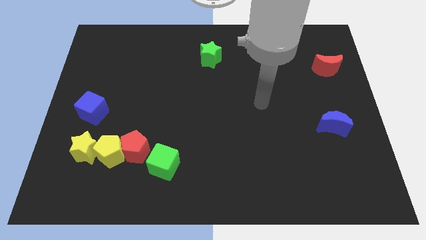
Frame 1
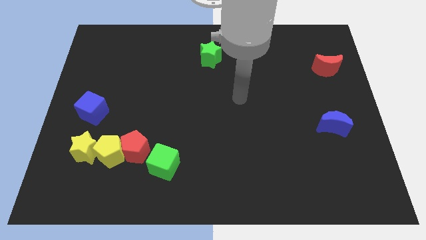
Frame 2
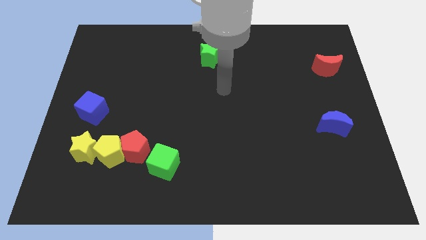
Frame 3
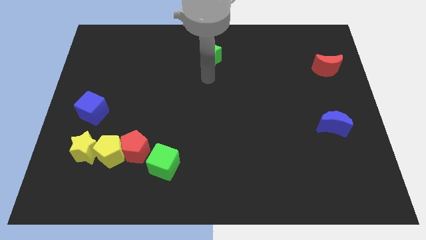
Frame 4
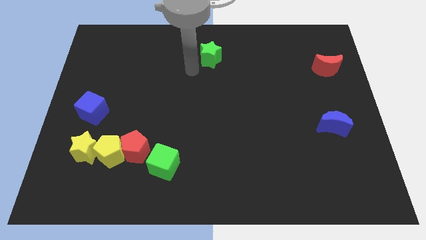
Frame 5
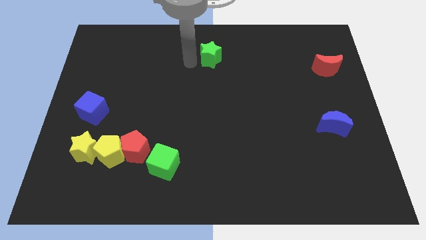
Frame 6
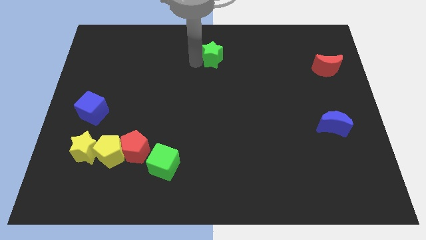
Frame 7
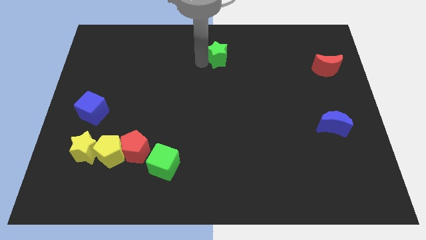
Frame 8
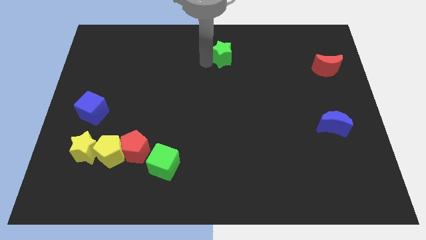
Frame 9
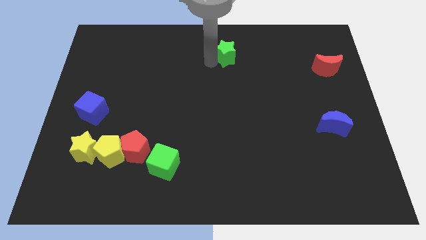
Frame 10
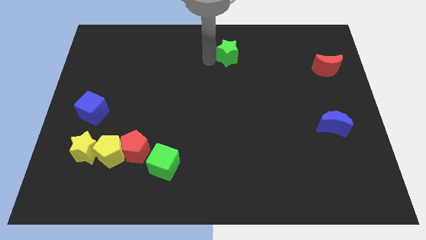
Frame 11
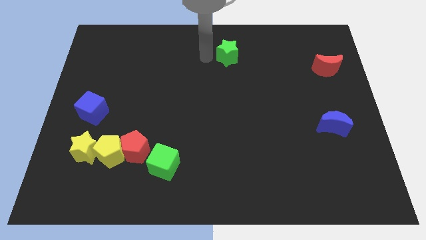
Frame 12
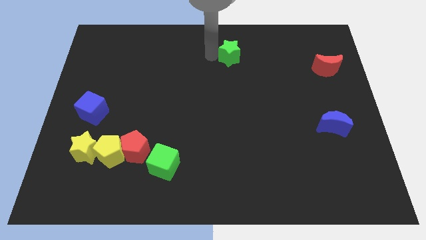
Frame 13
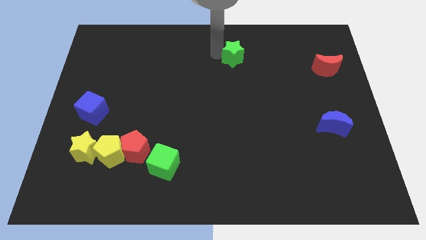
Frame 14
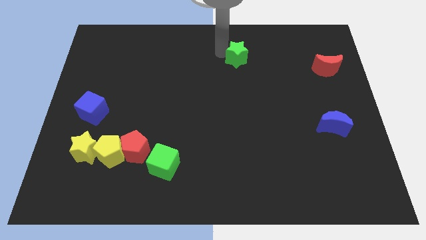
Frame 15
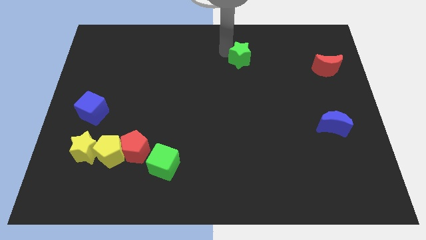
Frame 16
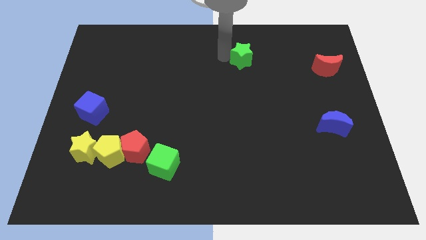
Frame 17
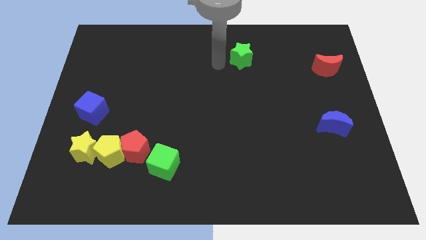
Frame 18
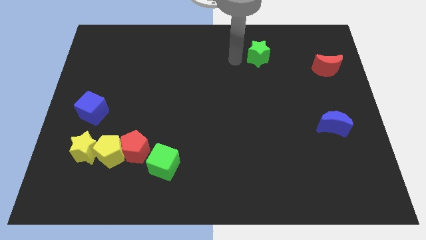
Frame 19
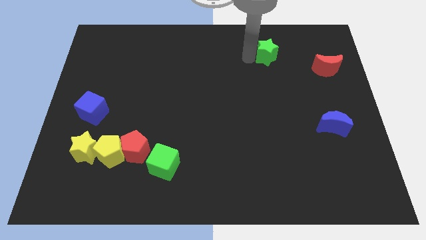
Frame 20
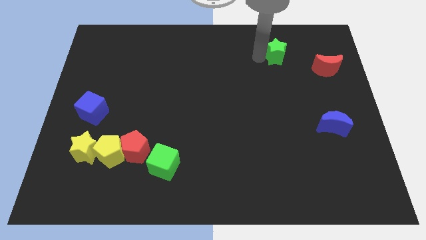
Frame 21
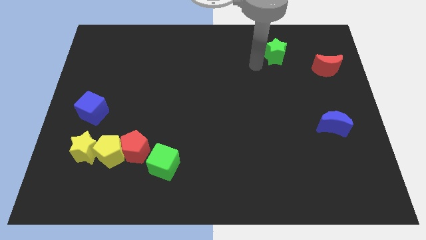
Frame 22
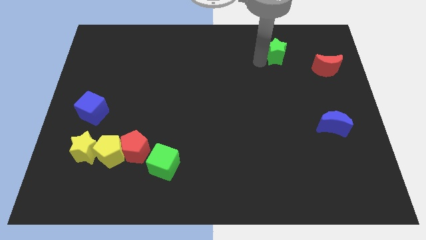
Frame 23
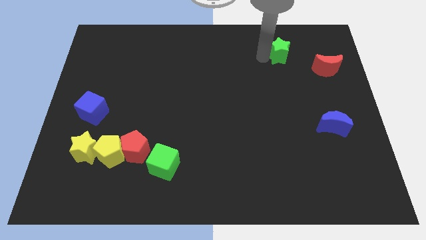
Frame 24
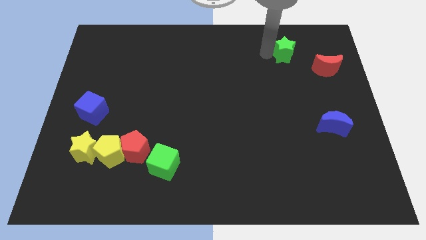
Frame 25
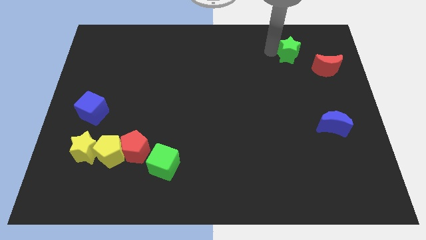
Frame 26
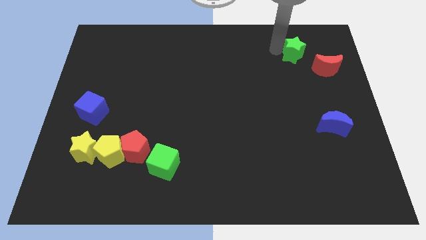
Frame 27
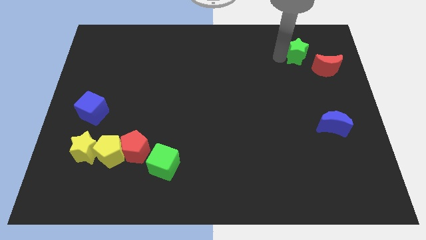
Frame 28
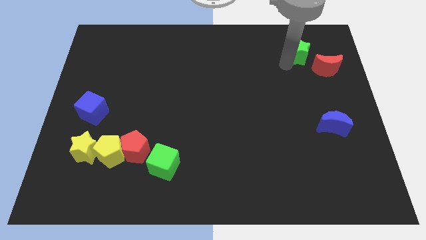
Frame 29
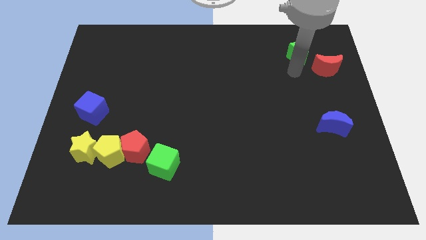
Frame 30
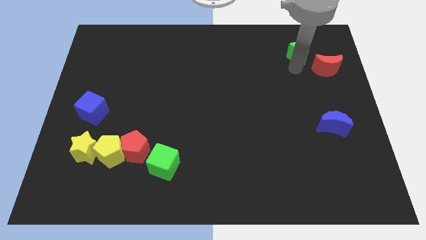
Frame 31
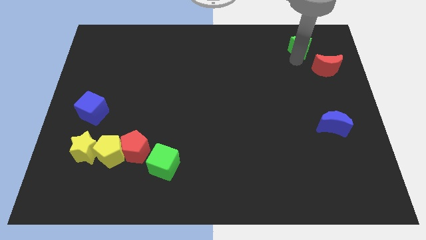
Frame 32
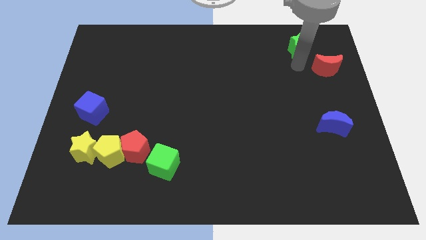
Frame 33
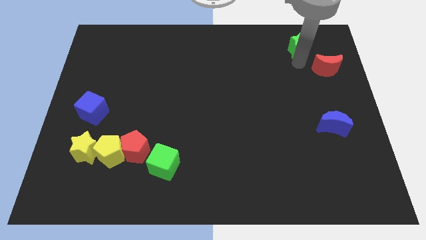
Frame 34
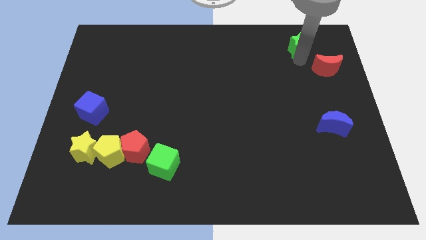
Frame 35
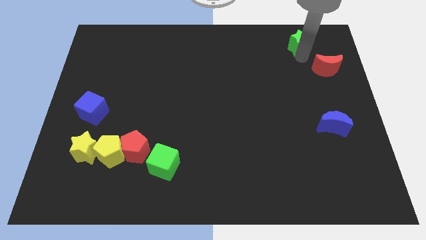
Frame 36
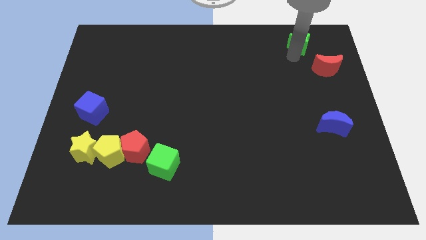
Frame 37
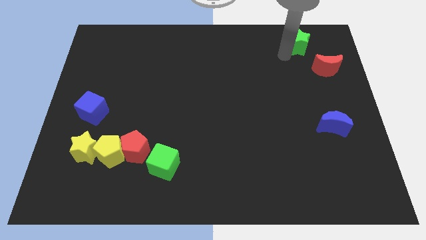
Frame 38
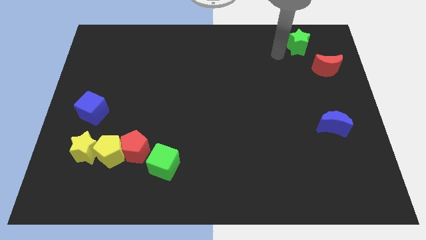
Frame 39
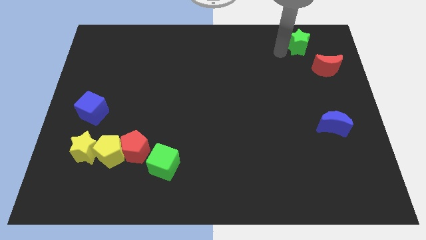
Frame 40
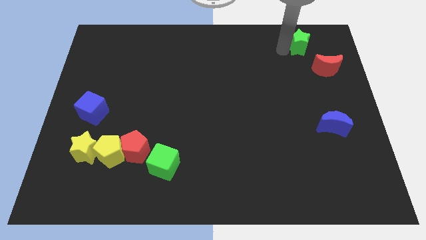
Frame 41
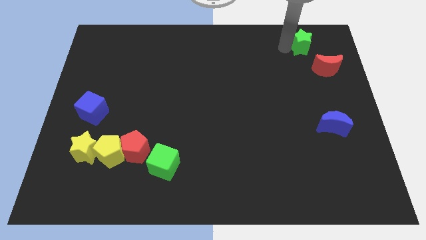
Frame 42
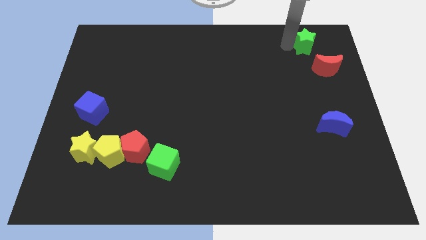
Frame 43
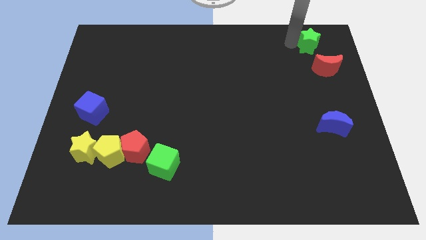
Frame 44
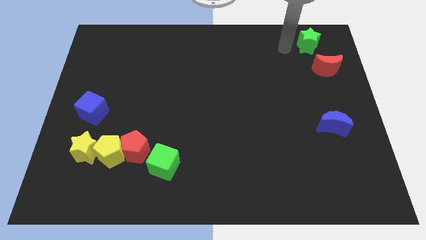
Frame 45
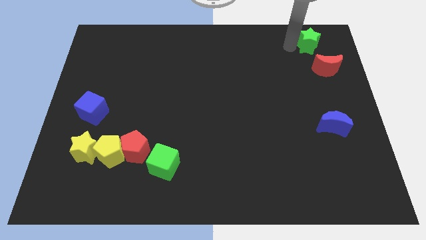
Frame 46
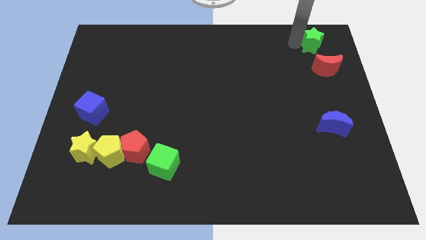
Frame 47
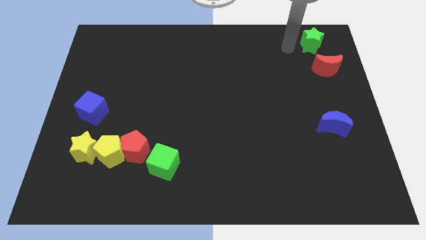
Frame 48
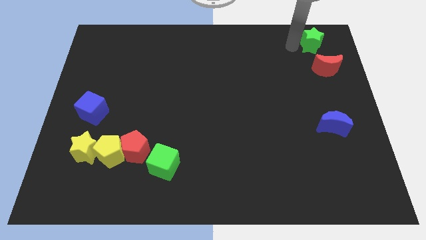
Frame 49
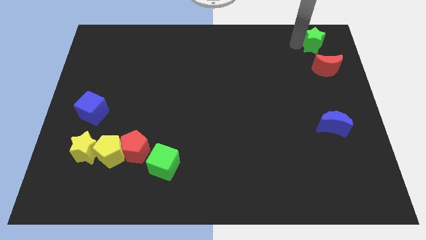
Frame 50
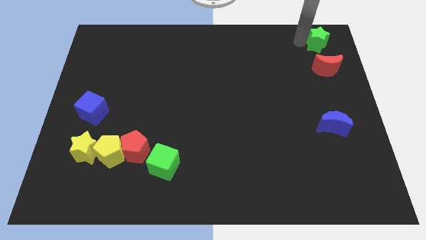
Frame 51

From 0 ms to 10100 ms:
move the green star to the top right corner

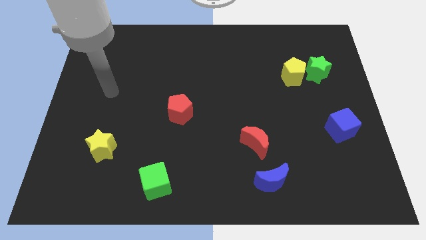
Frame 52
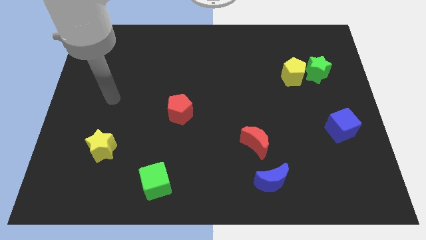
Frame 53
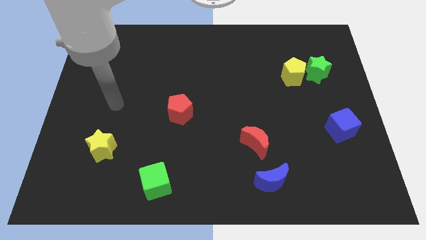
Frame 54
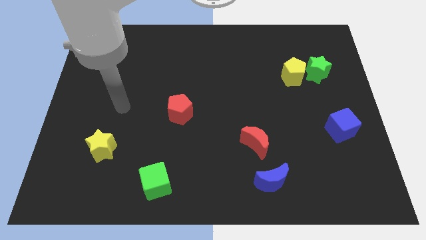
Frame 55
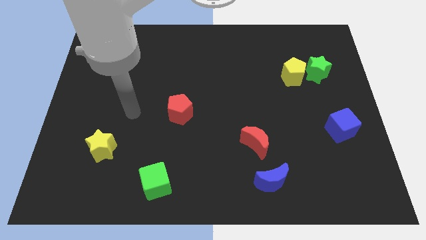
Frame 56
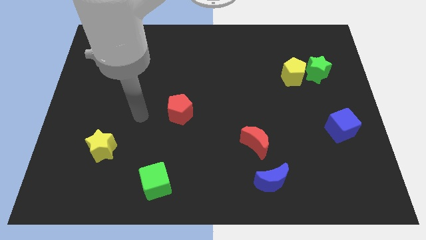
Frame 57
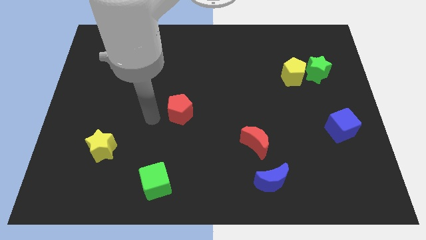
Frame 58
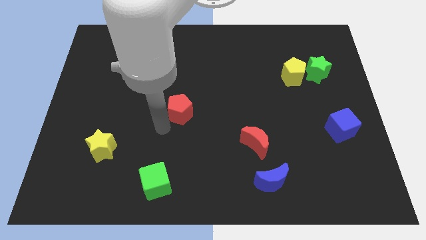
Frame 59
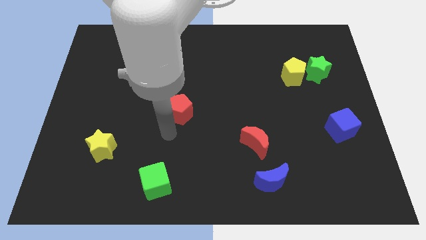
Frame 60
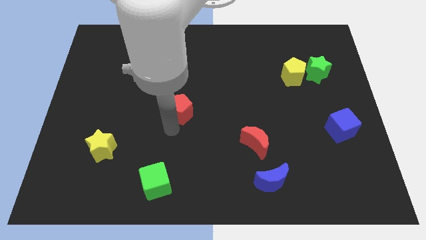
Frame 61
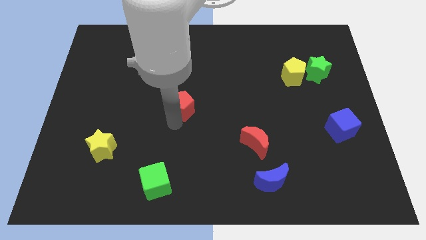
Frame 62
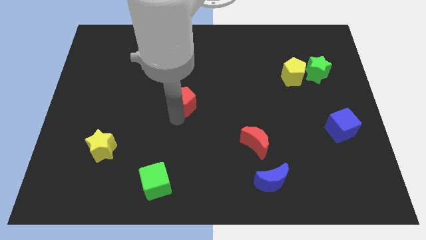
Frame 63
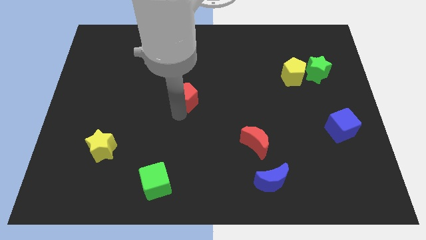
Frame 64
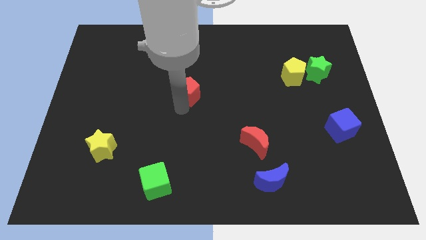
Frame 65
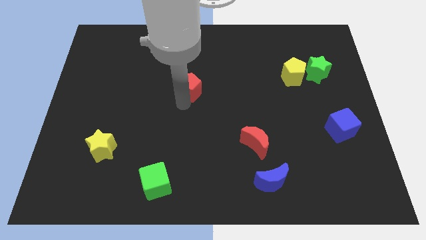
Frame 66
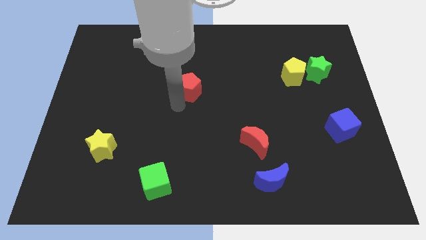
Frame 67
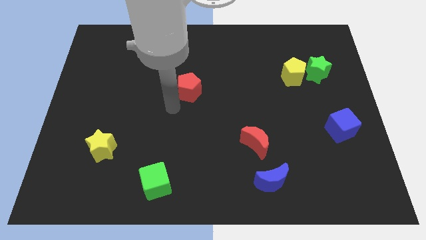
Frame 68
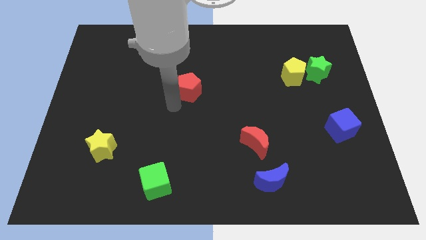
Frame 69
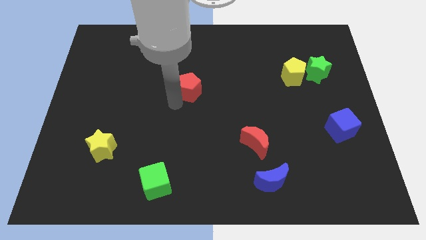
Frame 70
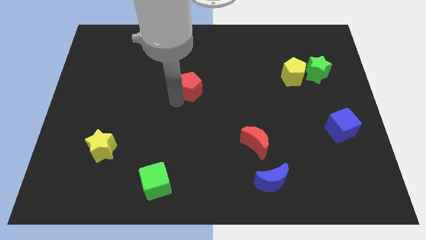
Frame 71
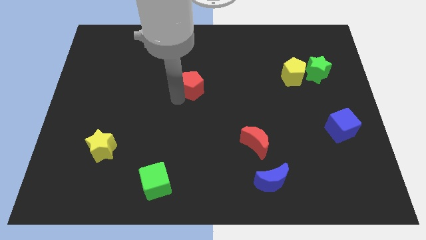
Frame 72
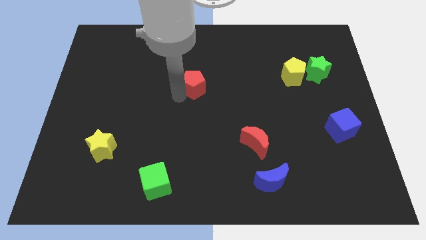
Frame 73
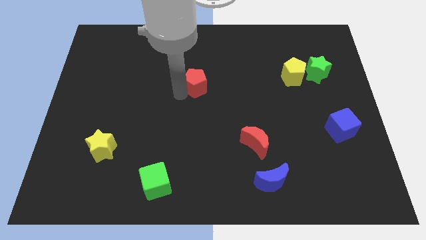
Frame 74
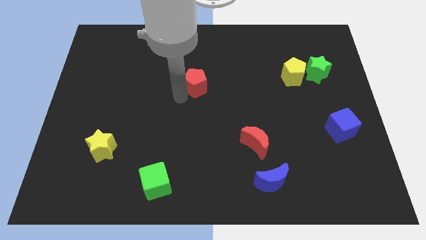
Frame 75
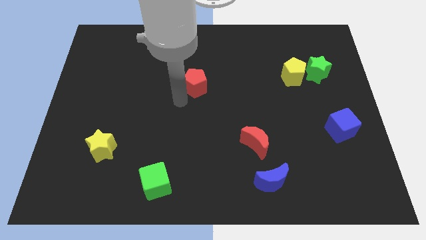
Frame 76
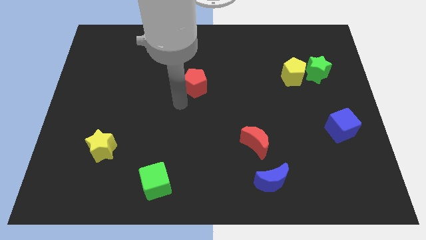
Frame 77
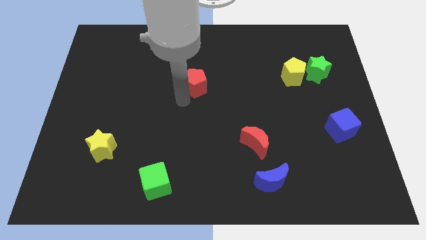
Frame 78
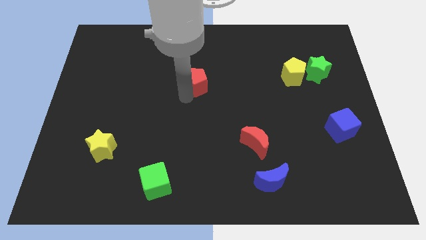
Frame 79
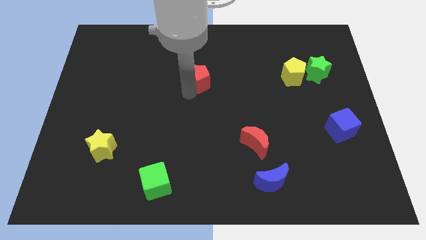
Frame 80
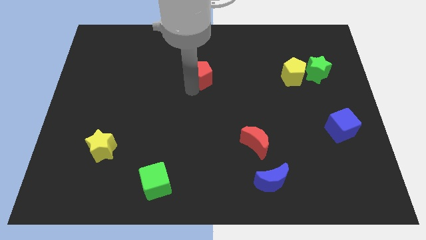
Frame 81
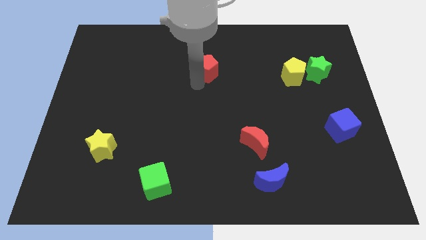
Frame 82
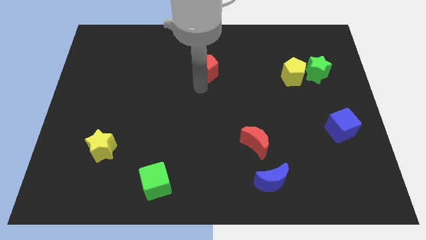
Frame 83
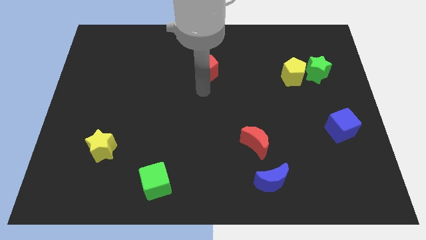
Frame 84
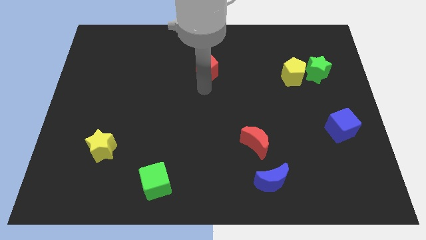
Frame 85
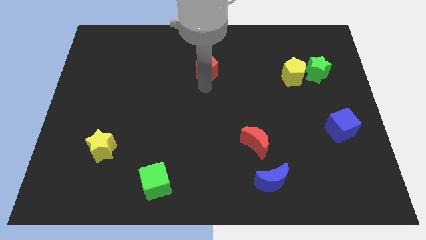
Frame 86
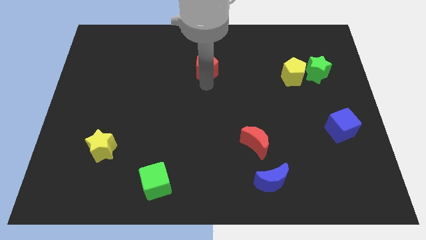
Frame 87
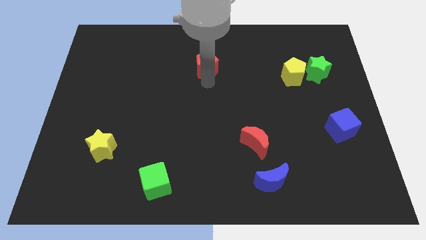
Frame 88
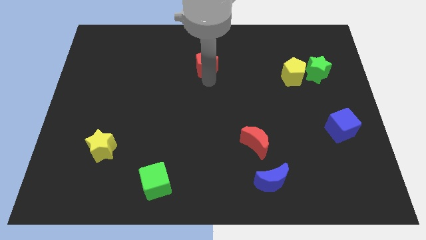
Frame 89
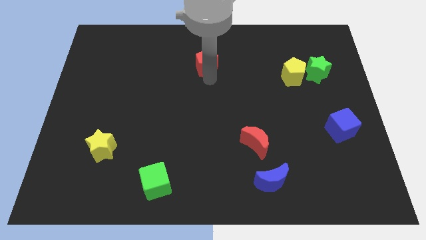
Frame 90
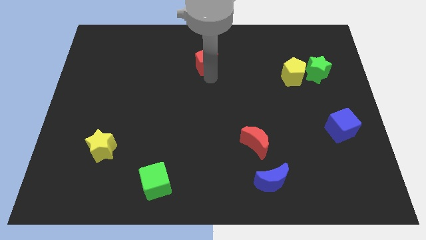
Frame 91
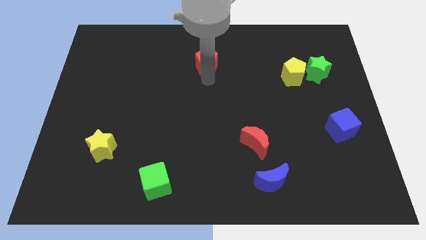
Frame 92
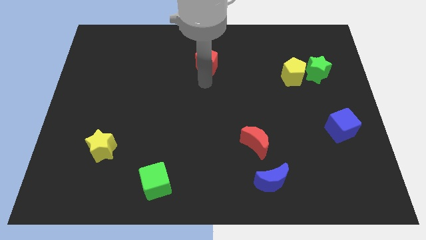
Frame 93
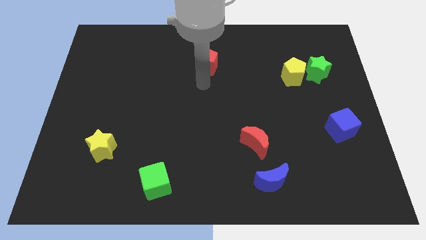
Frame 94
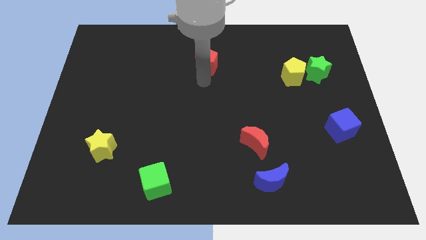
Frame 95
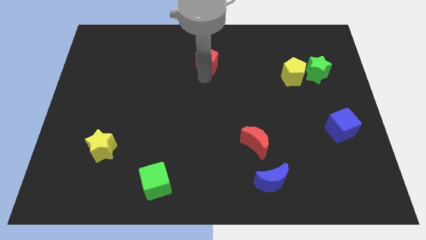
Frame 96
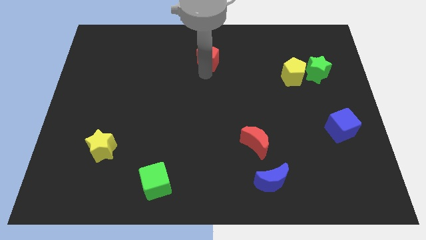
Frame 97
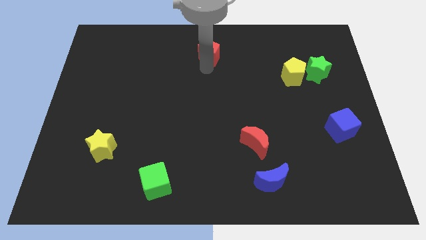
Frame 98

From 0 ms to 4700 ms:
push the red pentagon to the top side
